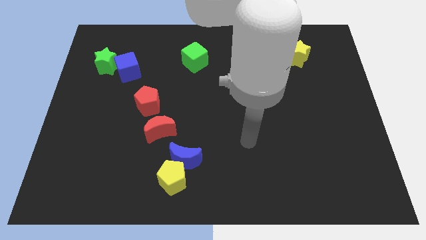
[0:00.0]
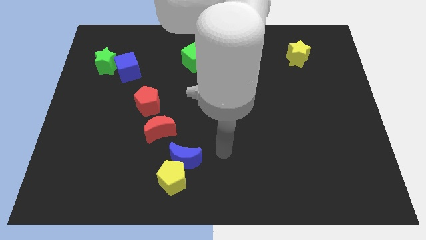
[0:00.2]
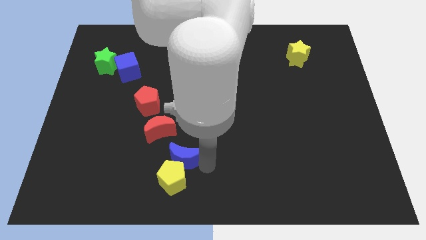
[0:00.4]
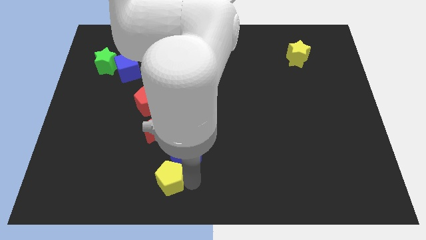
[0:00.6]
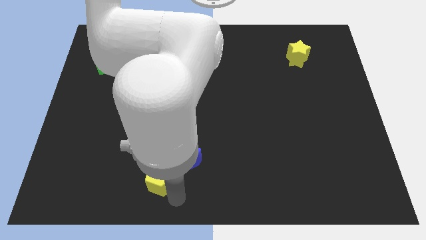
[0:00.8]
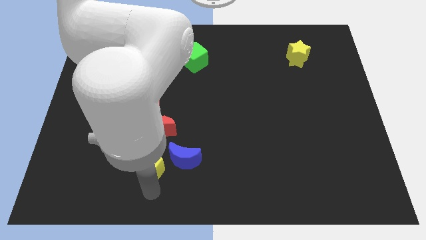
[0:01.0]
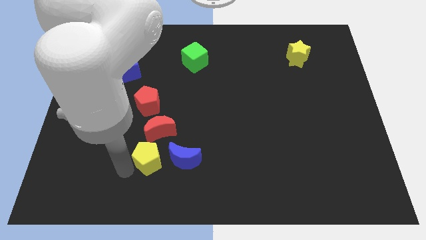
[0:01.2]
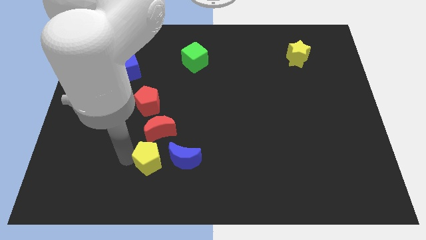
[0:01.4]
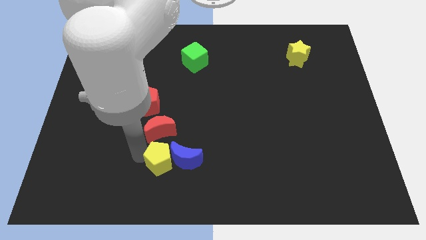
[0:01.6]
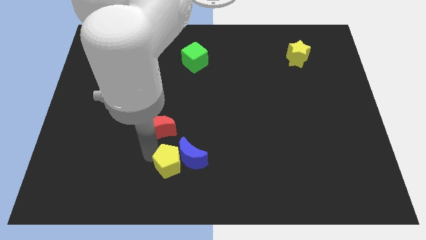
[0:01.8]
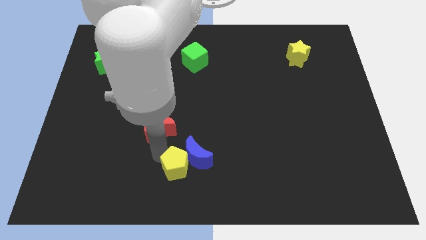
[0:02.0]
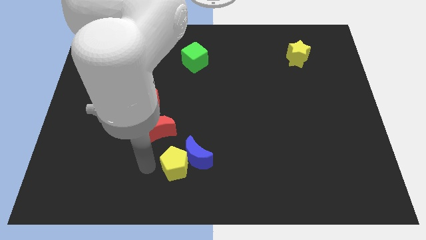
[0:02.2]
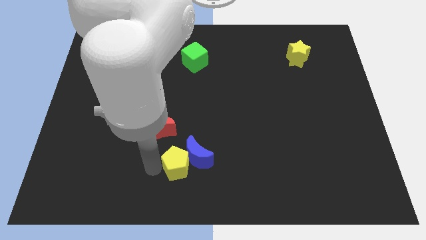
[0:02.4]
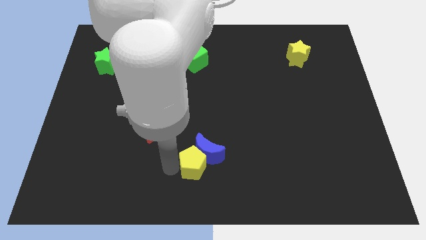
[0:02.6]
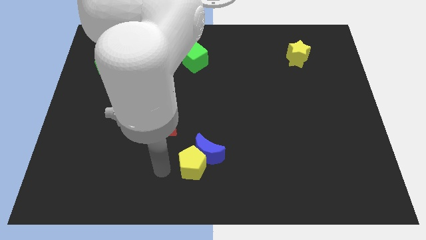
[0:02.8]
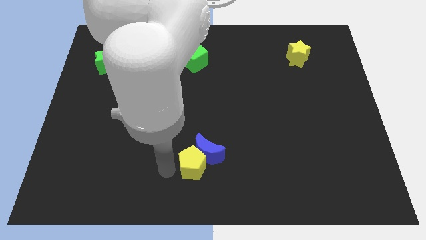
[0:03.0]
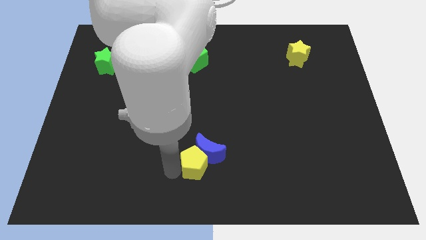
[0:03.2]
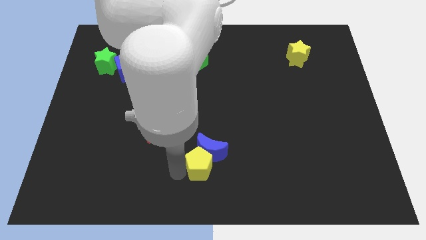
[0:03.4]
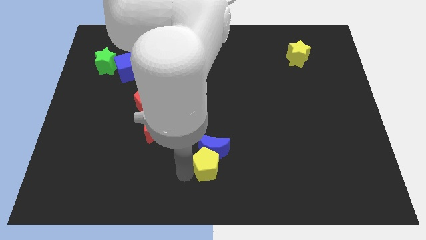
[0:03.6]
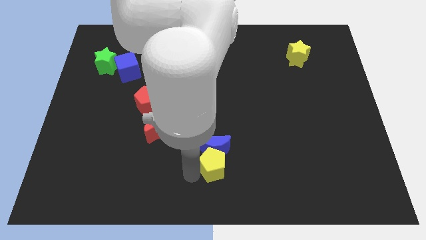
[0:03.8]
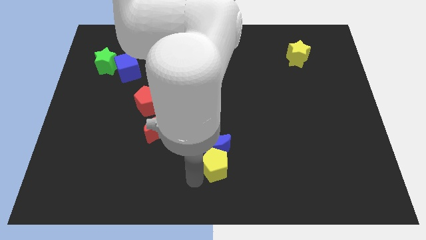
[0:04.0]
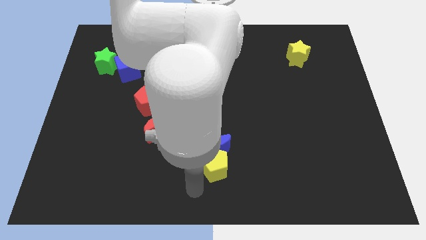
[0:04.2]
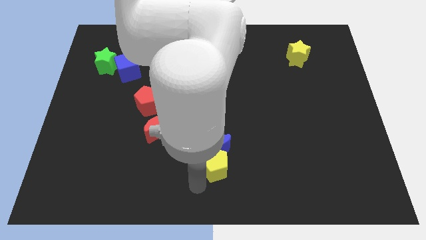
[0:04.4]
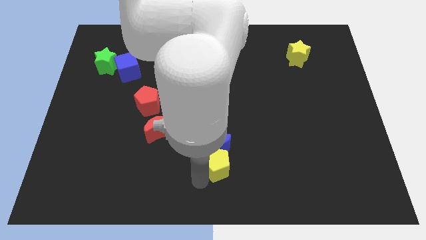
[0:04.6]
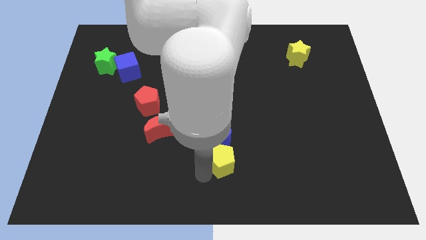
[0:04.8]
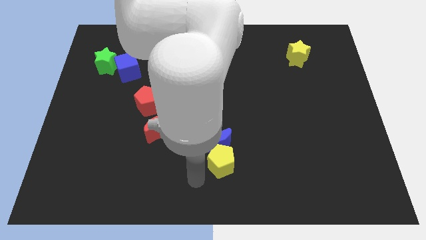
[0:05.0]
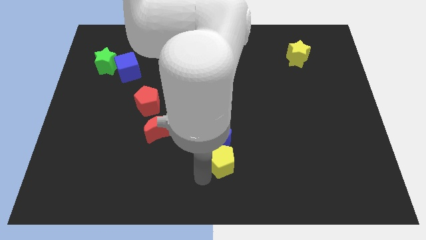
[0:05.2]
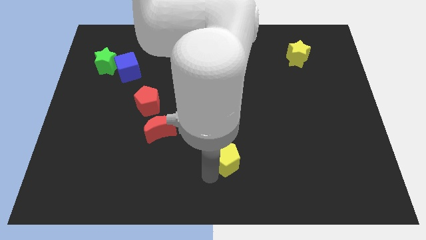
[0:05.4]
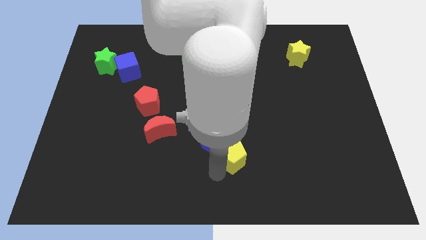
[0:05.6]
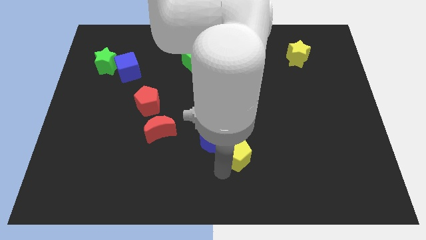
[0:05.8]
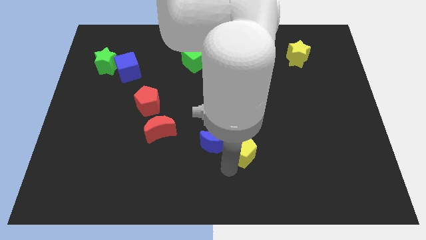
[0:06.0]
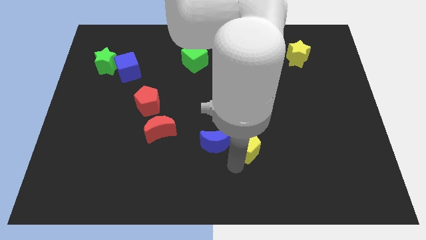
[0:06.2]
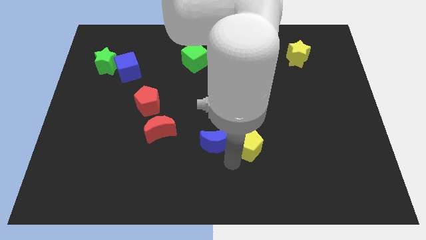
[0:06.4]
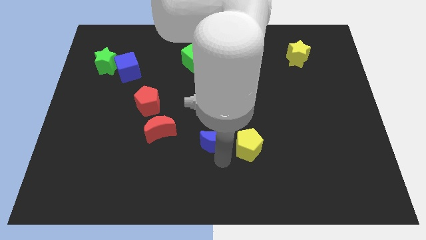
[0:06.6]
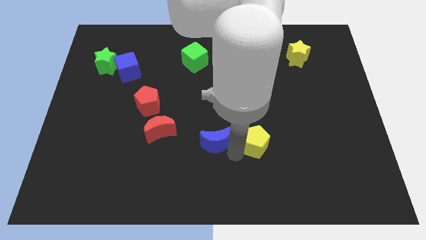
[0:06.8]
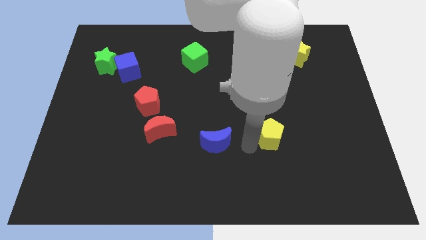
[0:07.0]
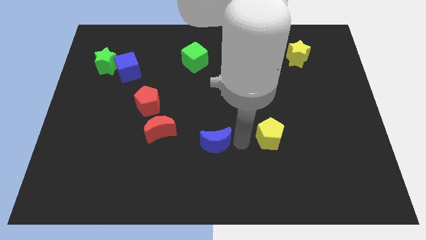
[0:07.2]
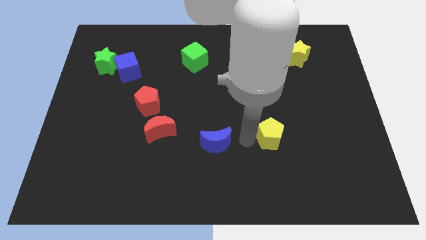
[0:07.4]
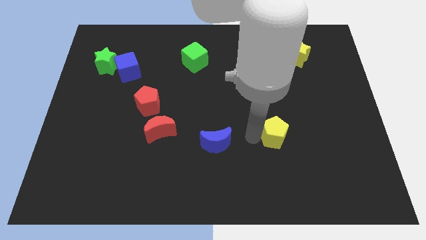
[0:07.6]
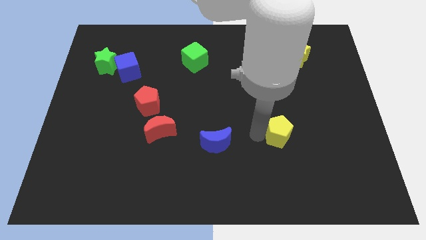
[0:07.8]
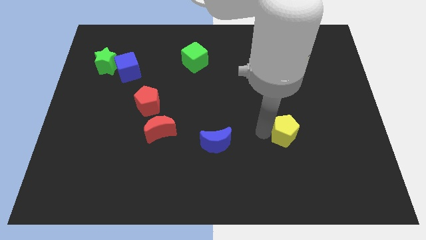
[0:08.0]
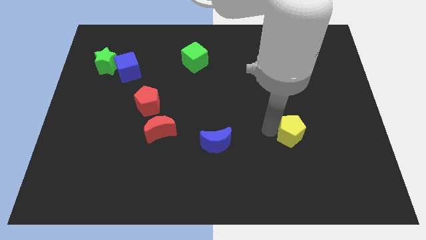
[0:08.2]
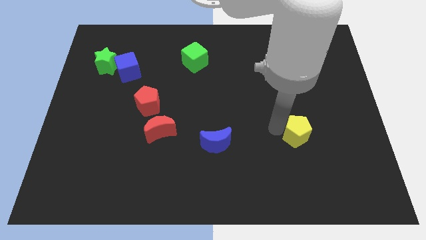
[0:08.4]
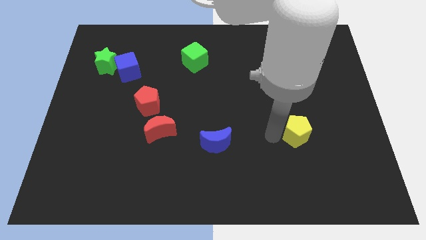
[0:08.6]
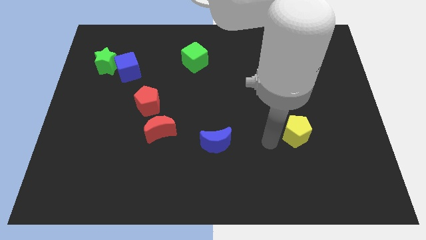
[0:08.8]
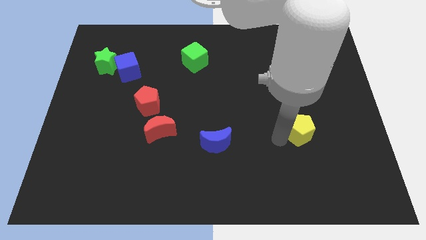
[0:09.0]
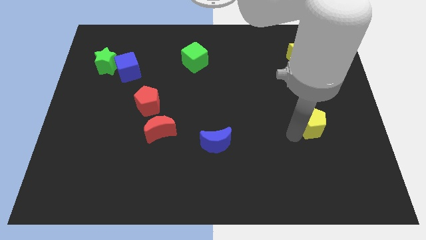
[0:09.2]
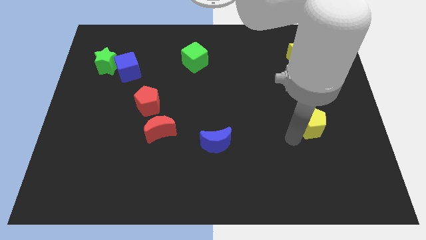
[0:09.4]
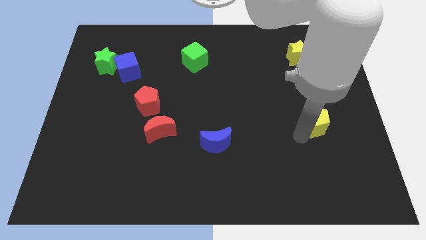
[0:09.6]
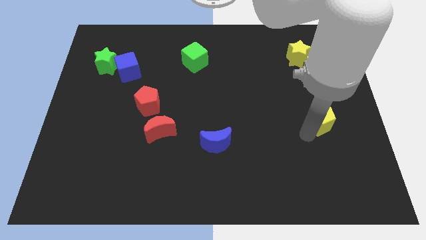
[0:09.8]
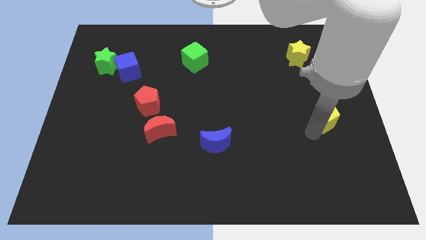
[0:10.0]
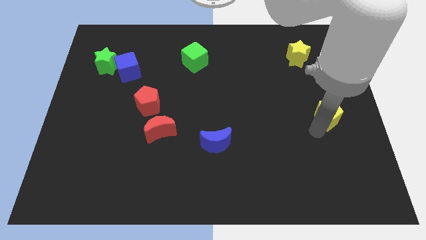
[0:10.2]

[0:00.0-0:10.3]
put the yellow pentagon to the right side of the board

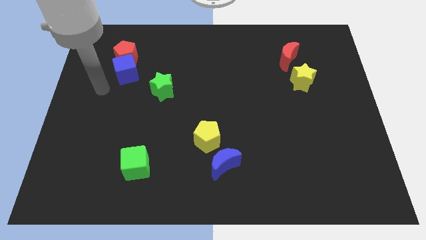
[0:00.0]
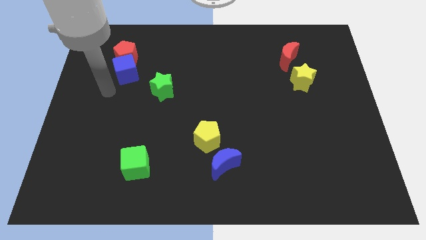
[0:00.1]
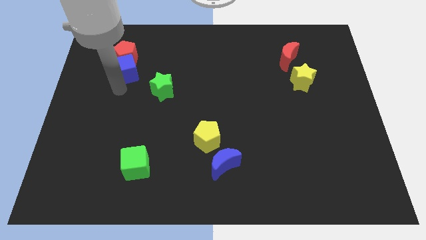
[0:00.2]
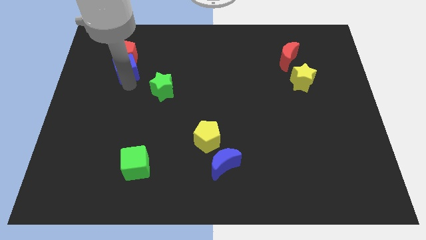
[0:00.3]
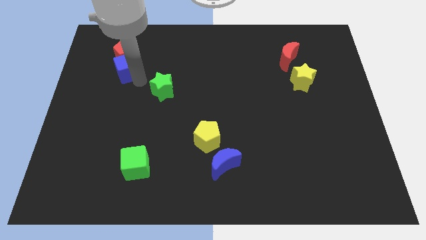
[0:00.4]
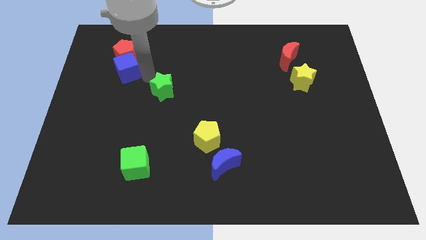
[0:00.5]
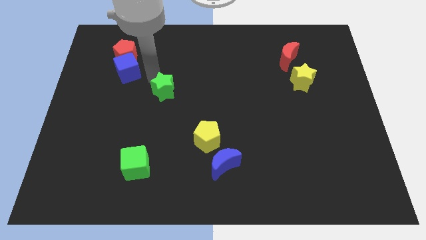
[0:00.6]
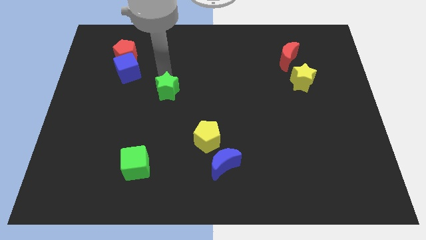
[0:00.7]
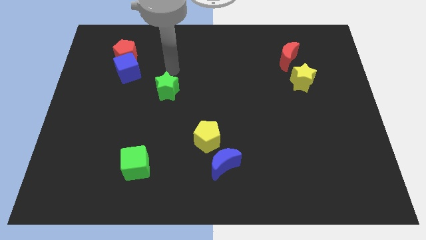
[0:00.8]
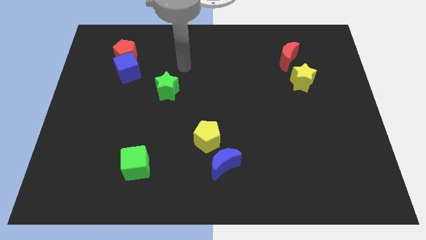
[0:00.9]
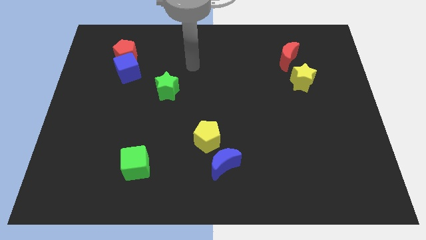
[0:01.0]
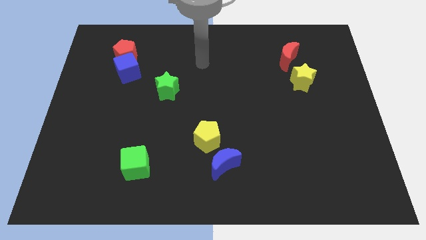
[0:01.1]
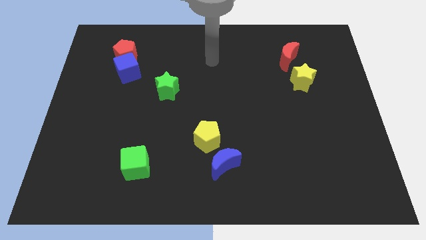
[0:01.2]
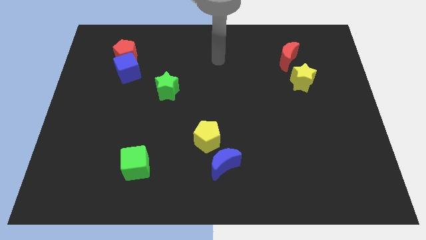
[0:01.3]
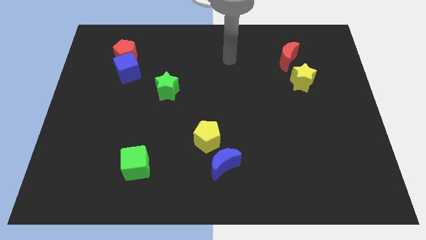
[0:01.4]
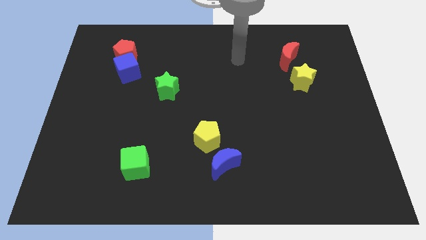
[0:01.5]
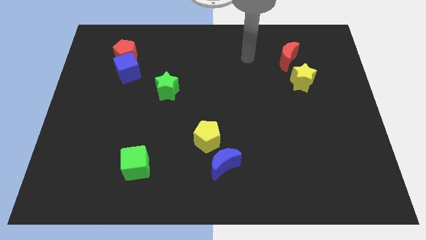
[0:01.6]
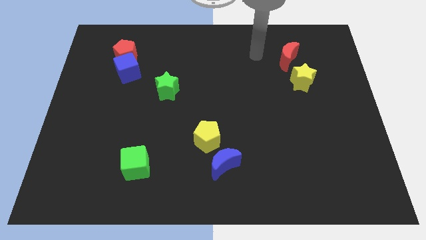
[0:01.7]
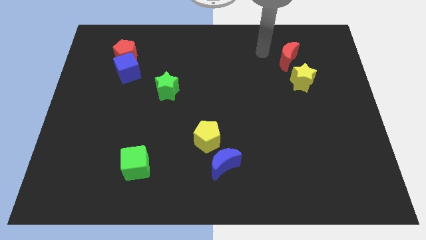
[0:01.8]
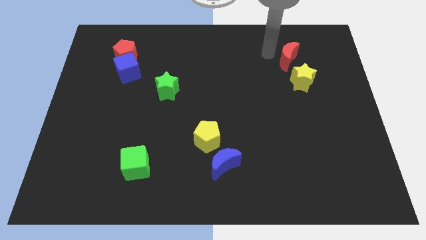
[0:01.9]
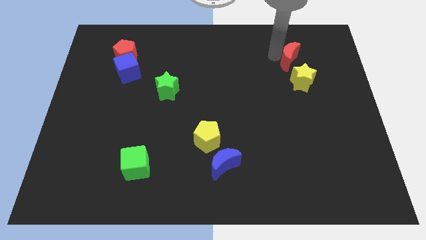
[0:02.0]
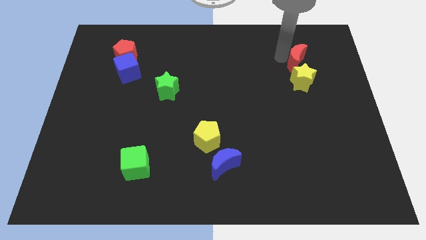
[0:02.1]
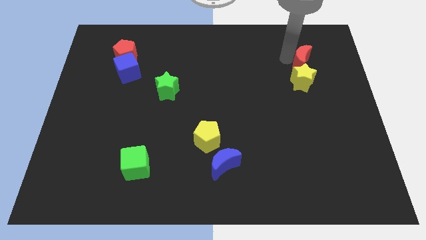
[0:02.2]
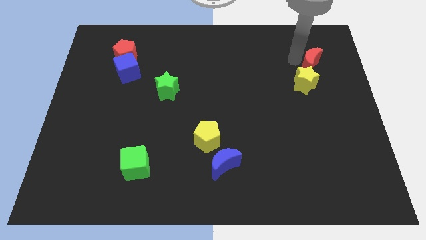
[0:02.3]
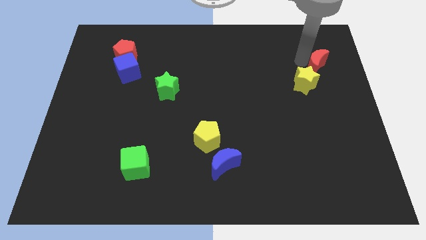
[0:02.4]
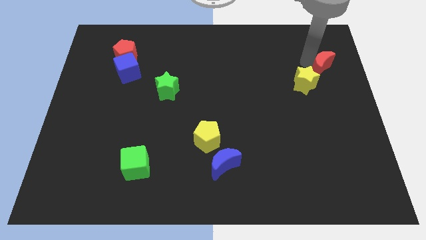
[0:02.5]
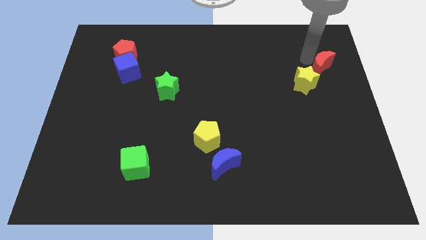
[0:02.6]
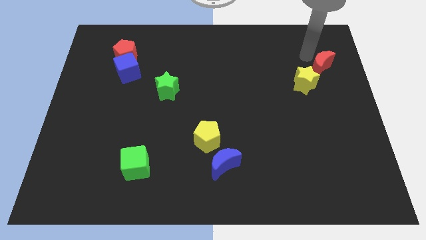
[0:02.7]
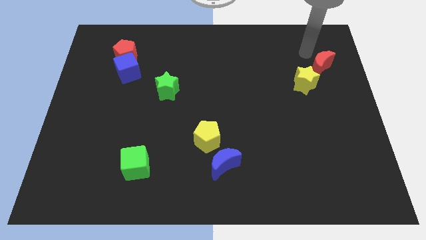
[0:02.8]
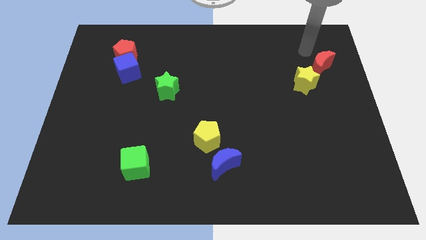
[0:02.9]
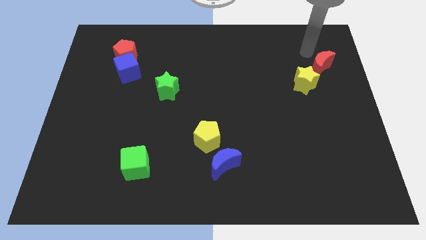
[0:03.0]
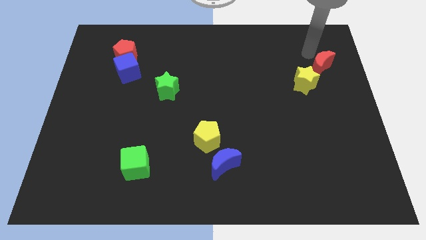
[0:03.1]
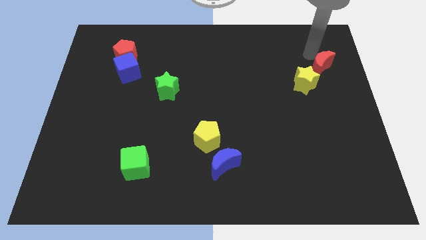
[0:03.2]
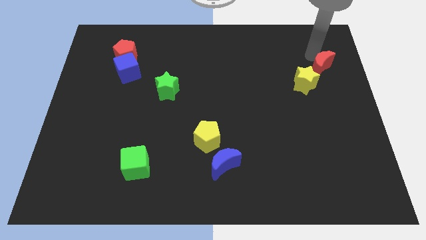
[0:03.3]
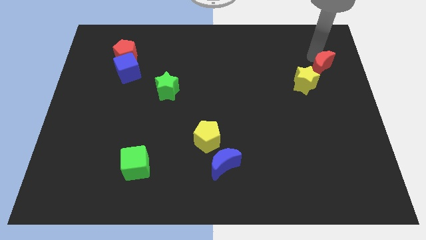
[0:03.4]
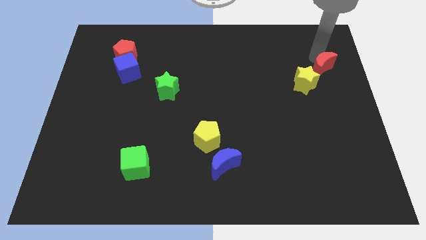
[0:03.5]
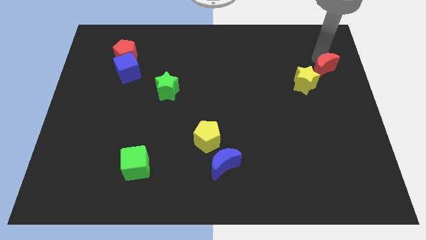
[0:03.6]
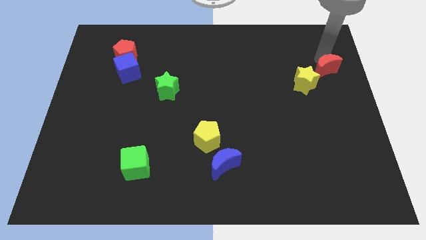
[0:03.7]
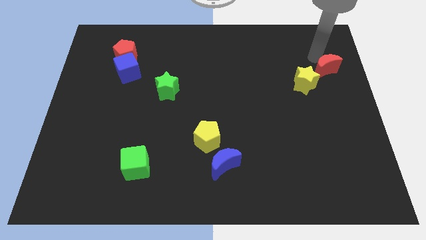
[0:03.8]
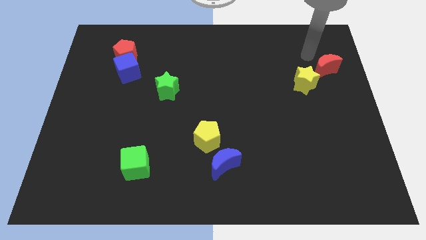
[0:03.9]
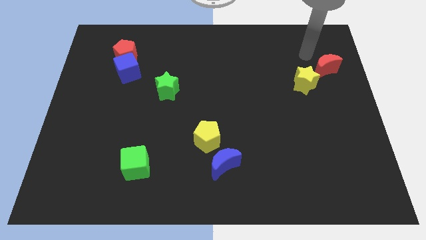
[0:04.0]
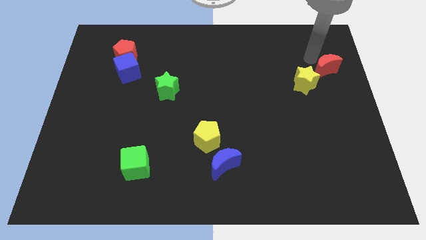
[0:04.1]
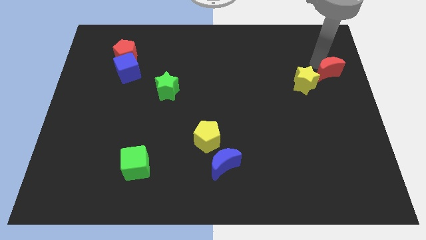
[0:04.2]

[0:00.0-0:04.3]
move the red moon to the right side
